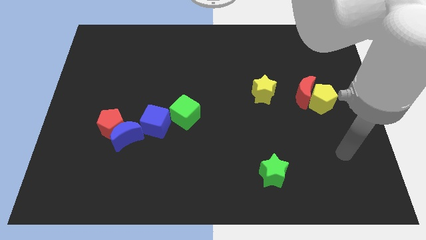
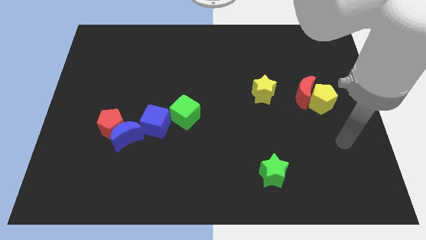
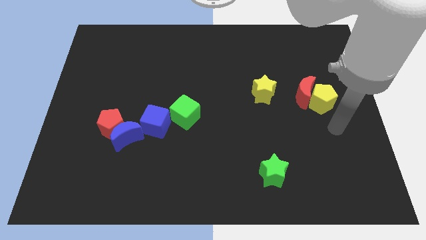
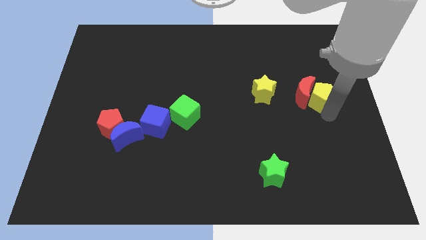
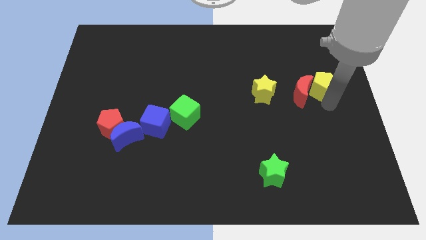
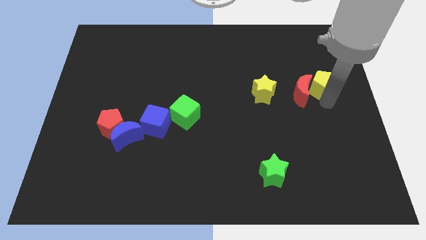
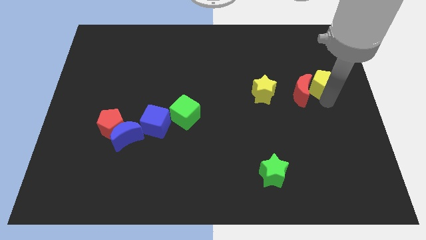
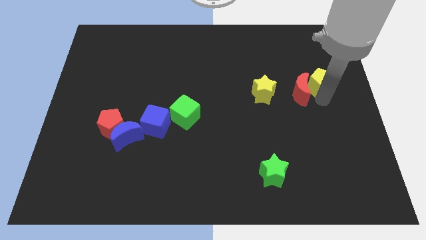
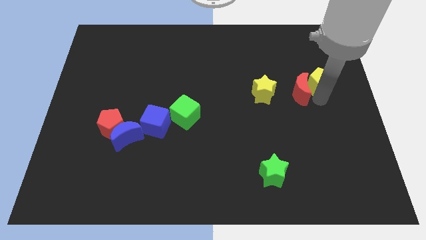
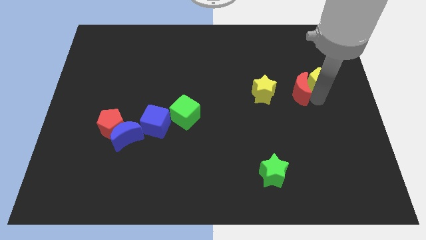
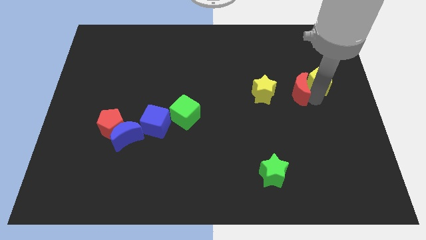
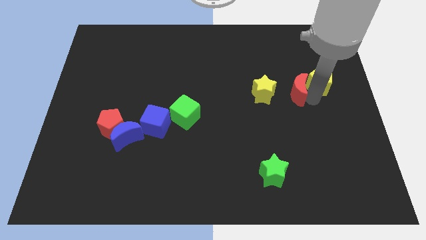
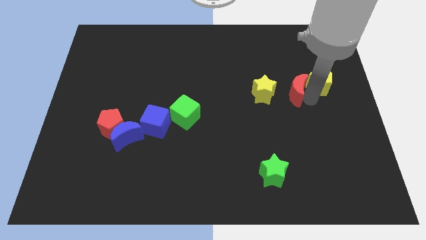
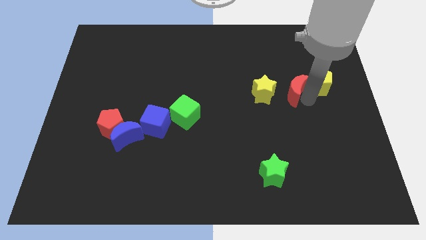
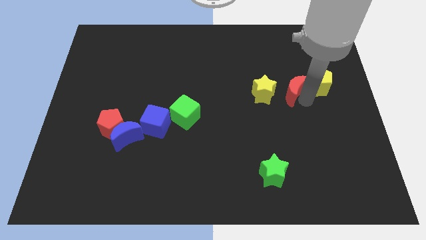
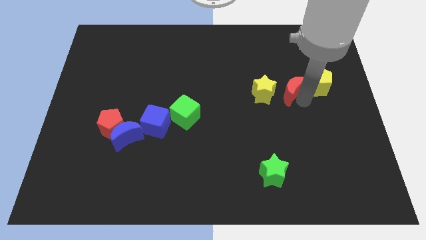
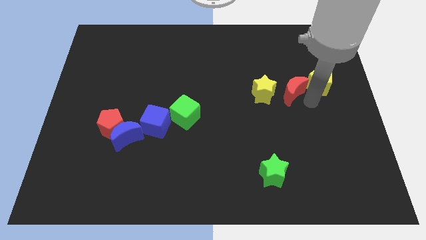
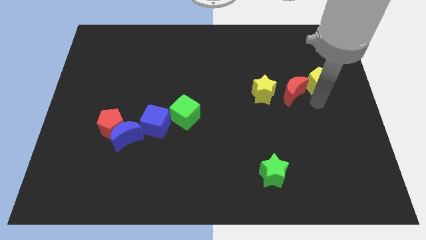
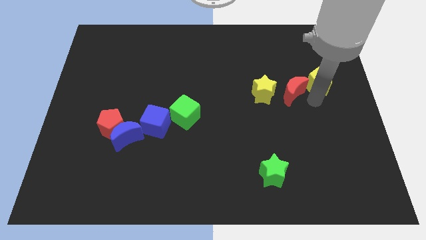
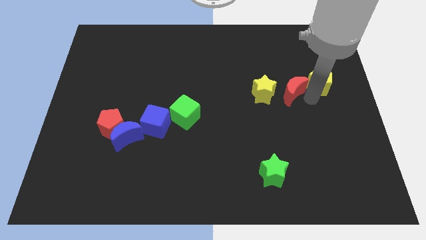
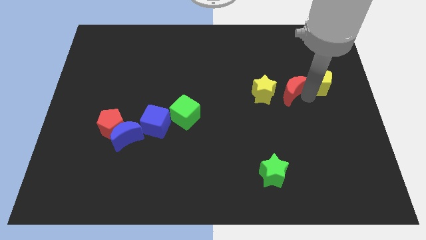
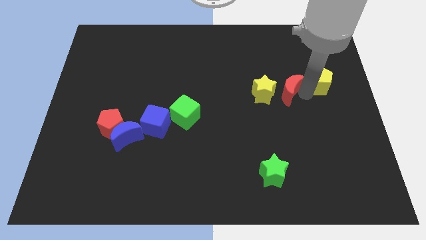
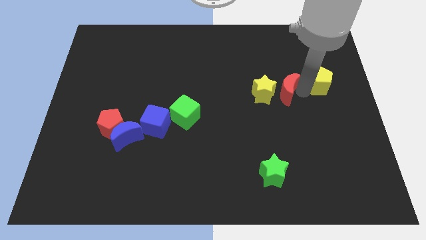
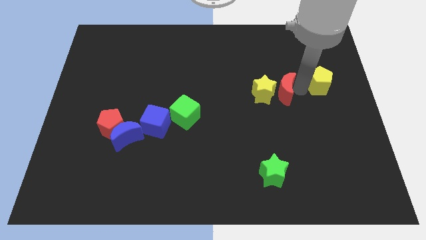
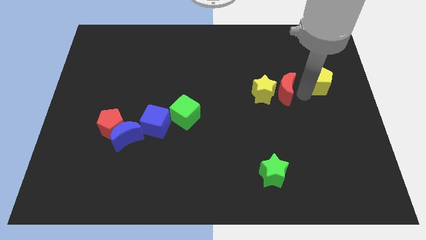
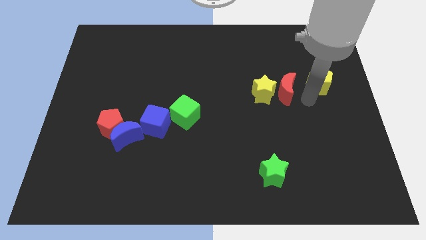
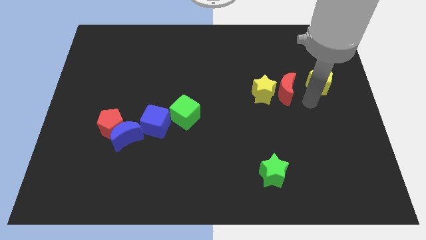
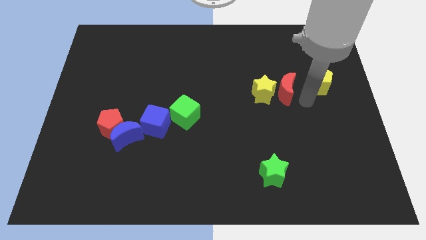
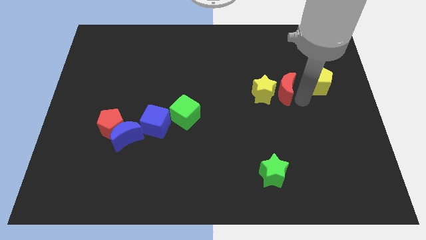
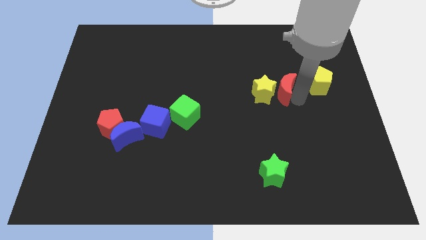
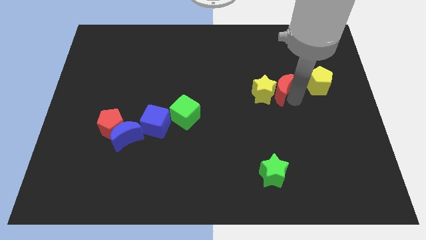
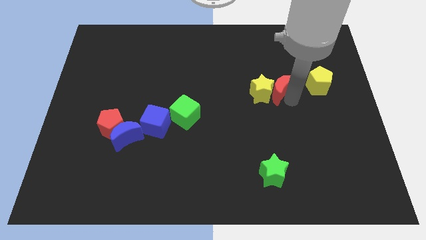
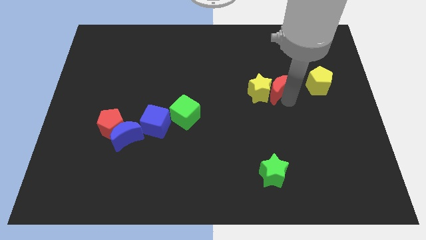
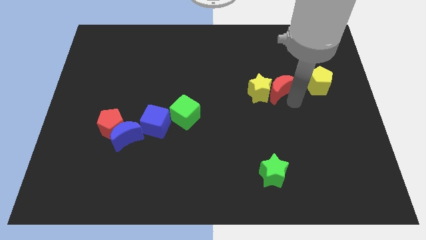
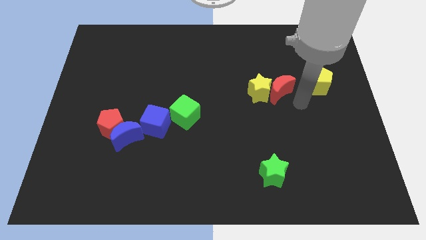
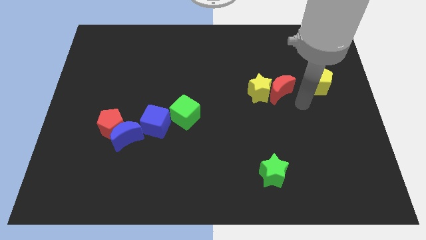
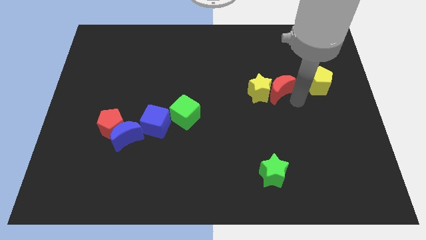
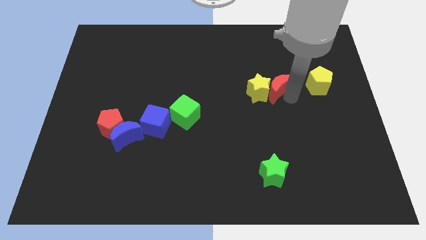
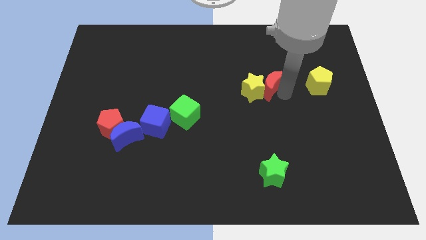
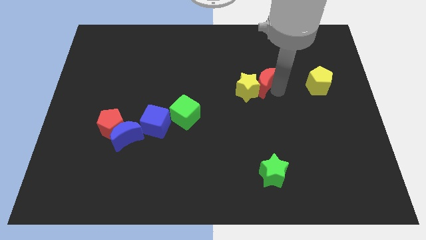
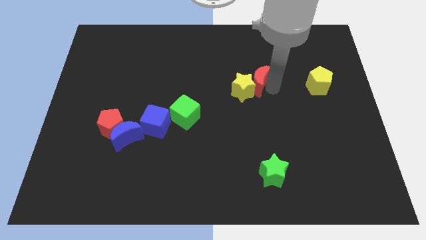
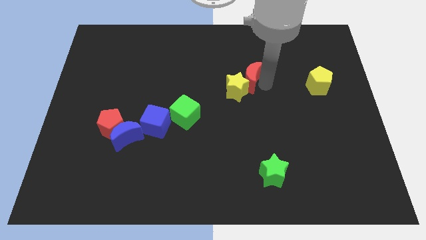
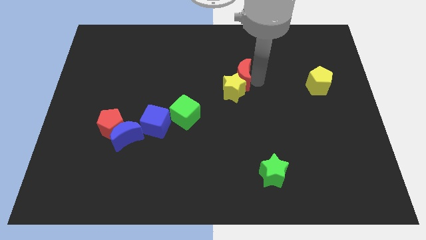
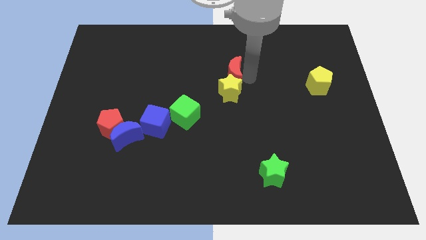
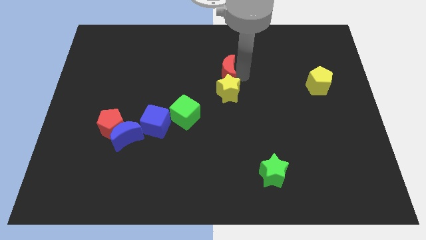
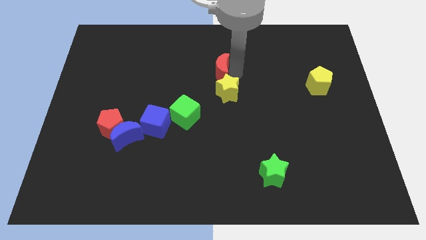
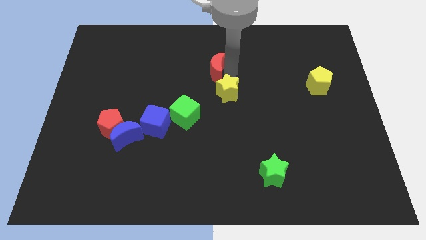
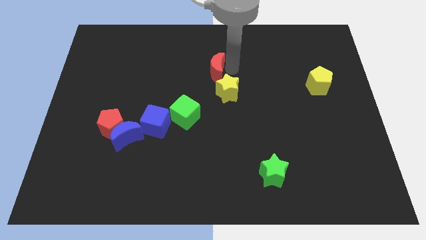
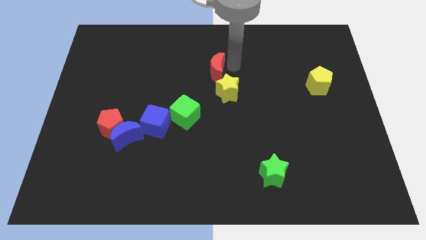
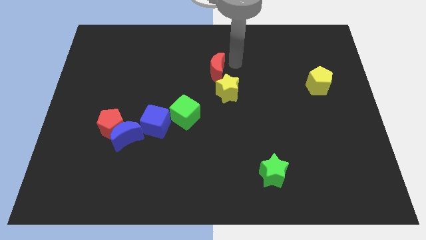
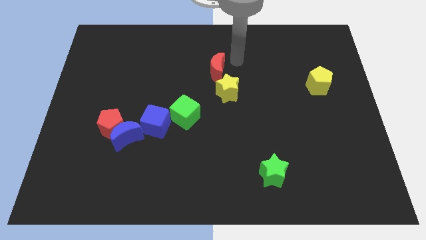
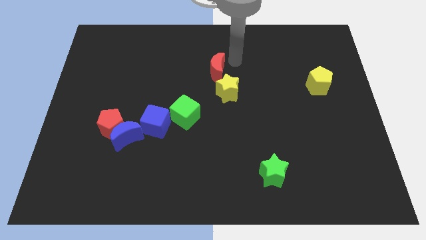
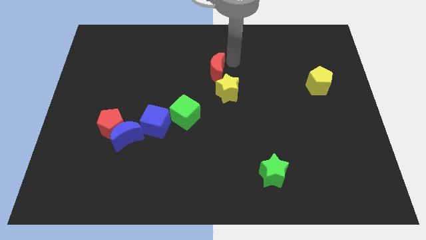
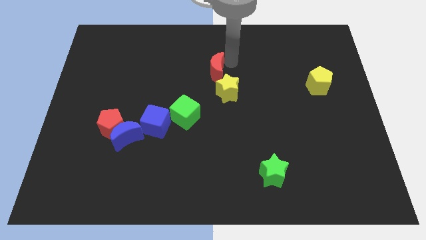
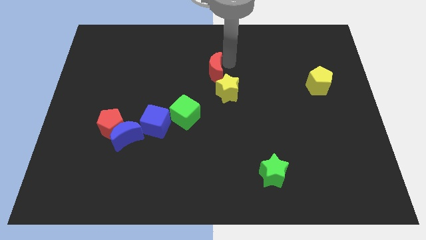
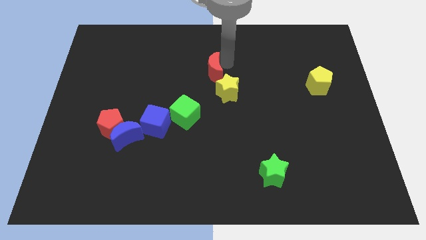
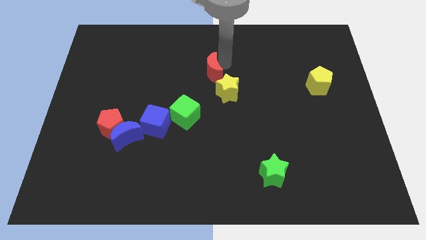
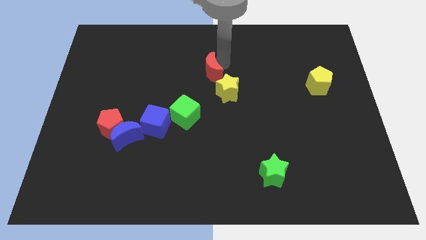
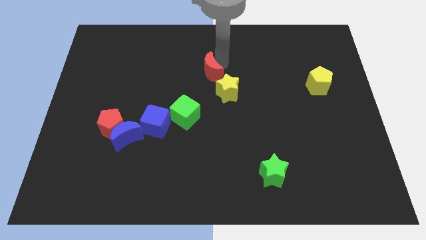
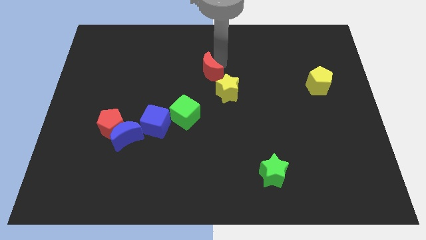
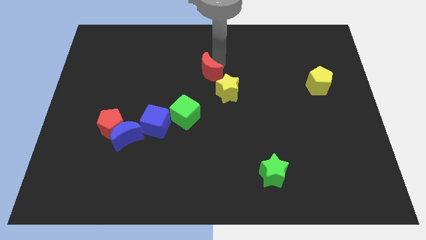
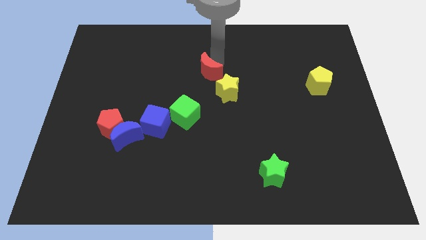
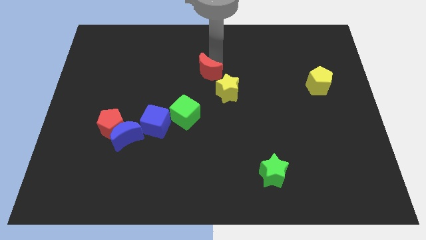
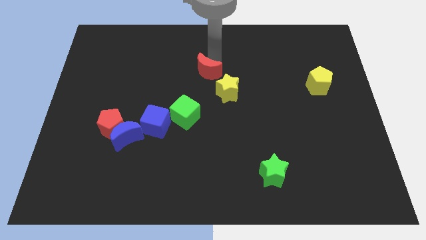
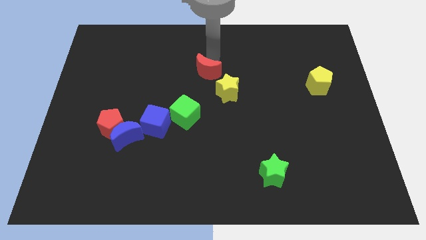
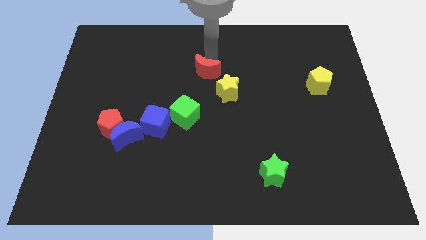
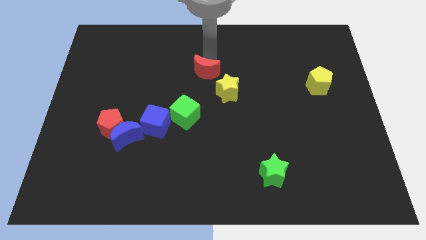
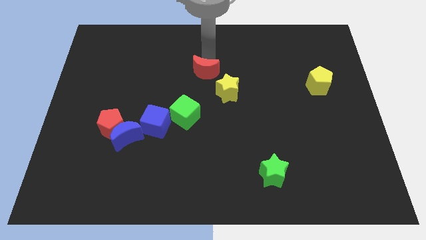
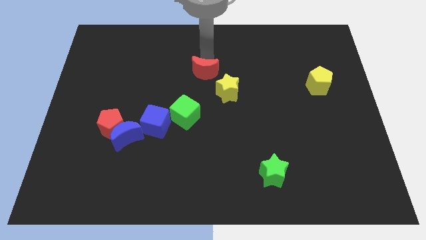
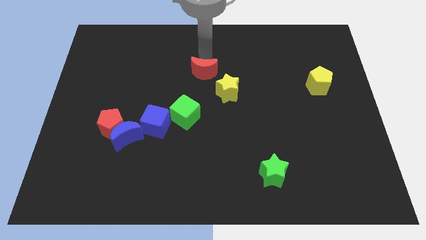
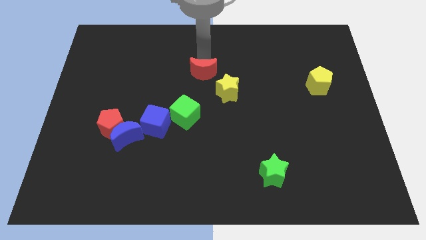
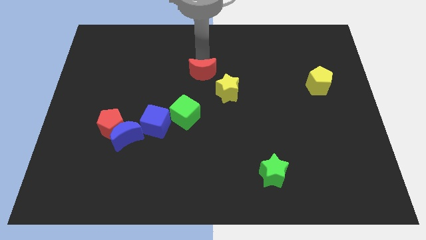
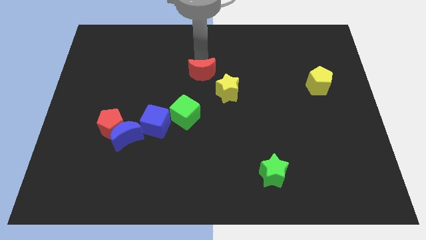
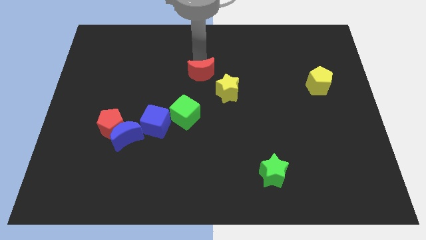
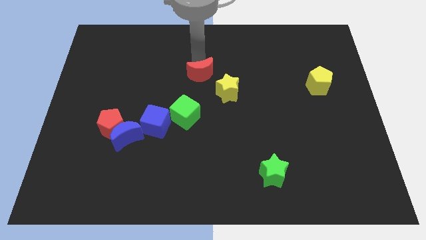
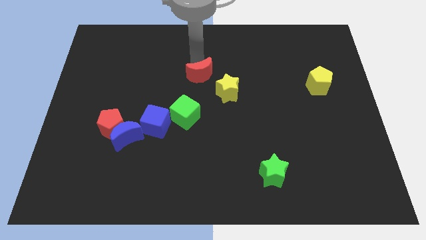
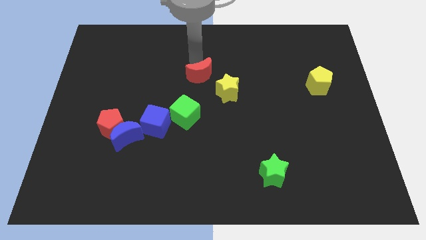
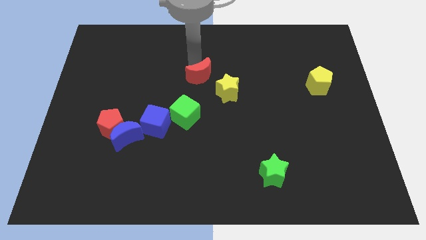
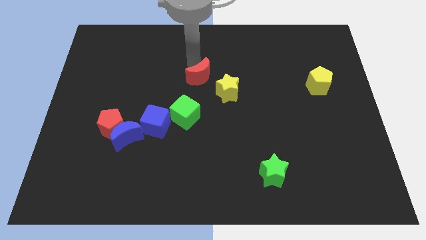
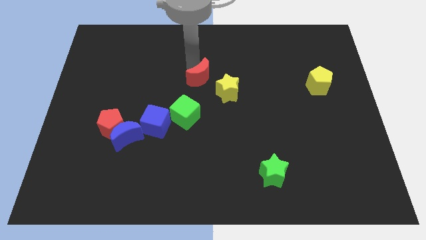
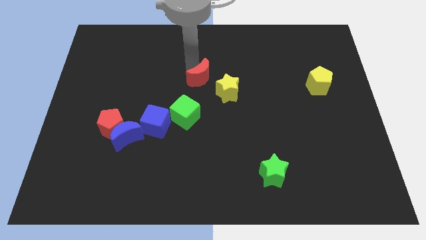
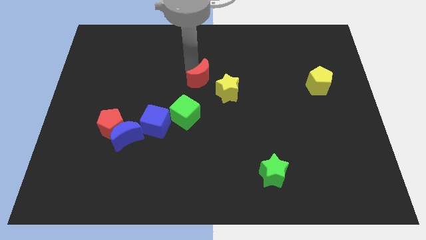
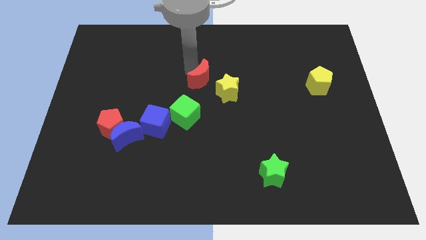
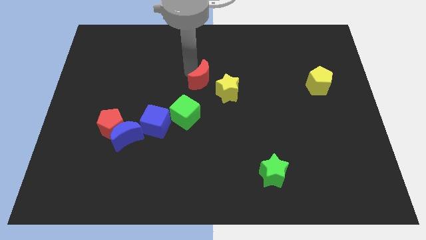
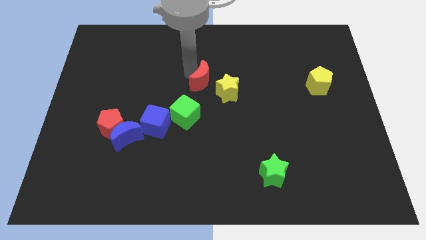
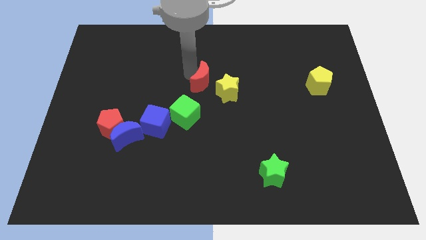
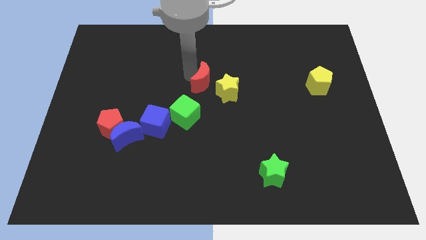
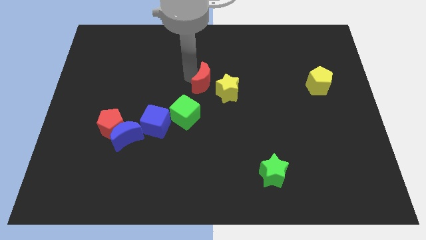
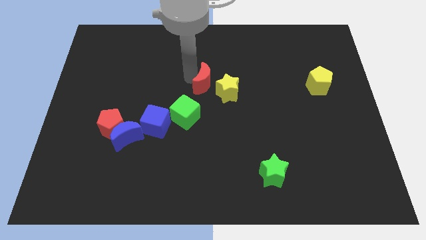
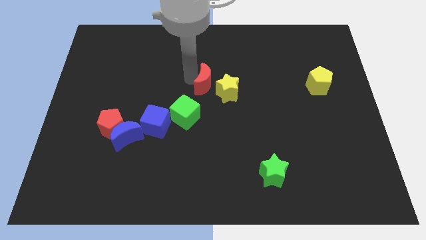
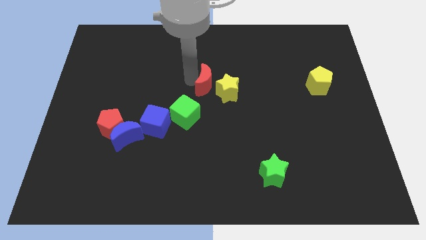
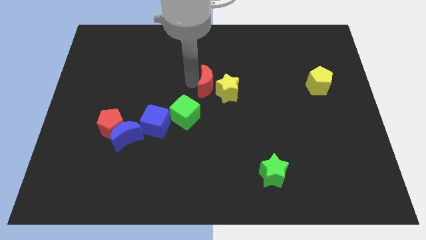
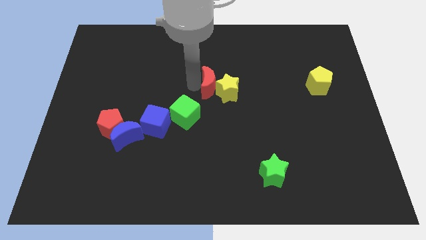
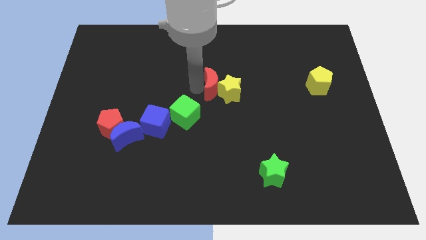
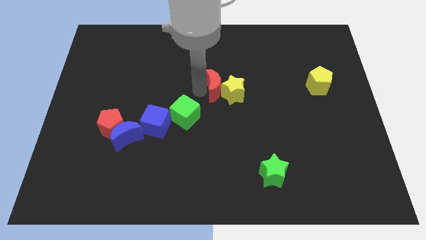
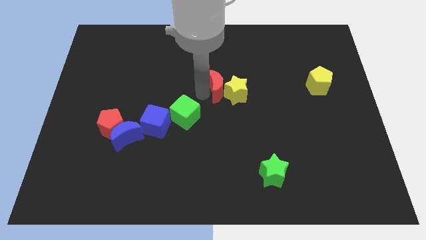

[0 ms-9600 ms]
move the red moon to the top left side of the yellow star
